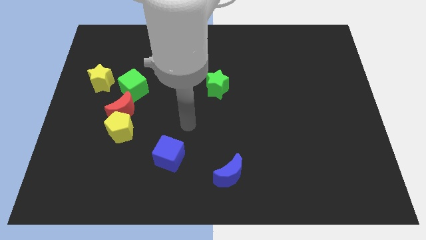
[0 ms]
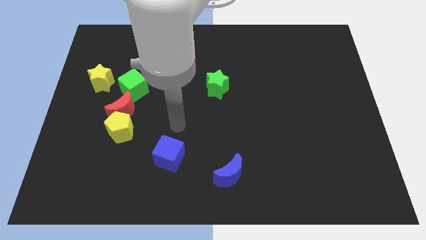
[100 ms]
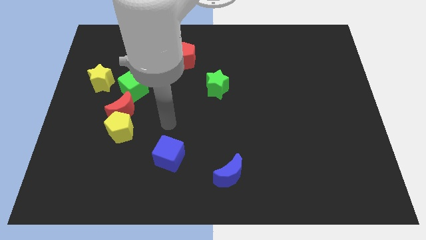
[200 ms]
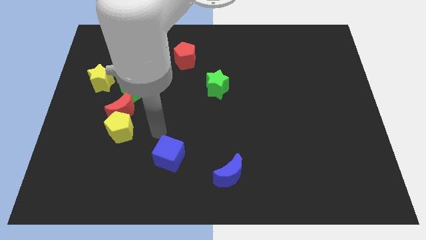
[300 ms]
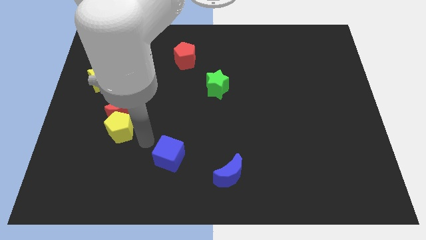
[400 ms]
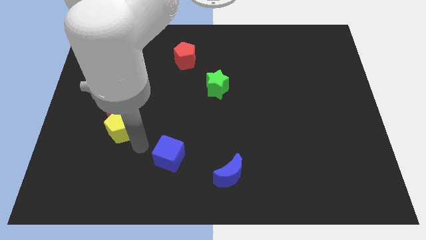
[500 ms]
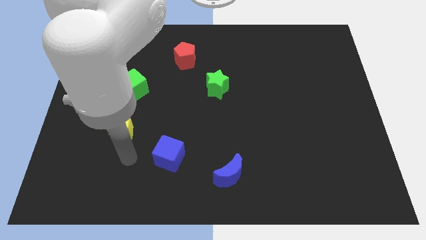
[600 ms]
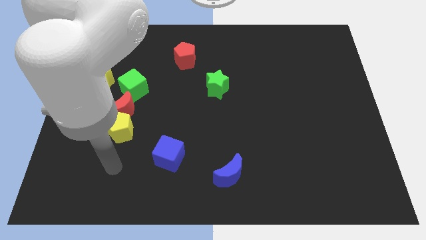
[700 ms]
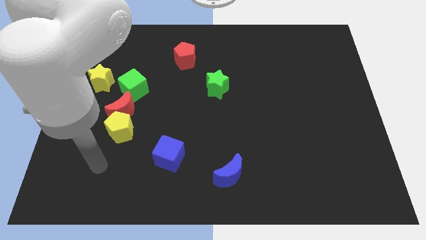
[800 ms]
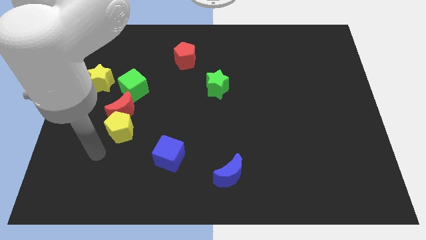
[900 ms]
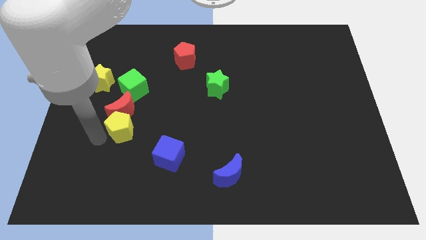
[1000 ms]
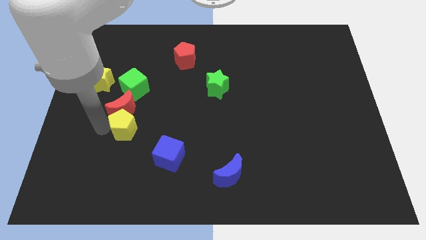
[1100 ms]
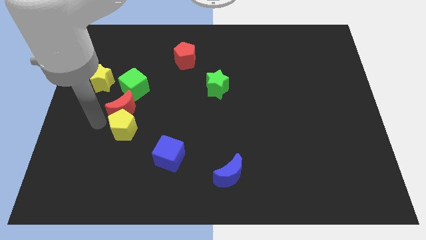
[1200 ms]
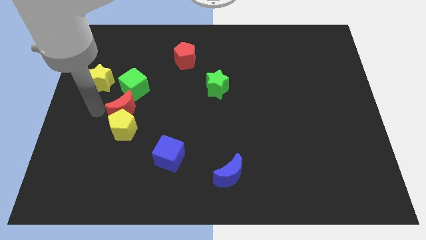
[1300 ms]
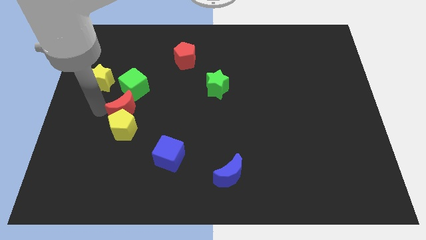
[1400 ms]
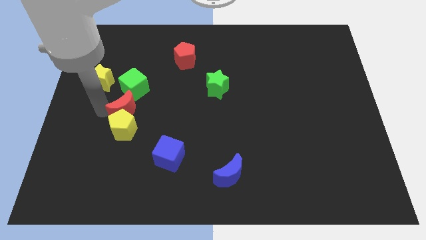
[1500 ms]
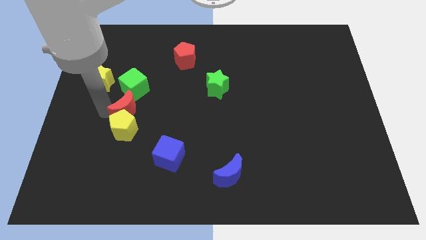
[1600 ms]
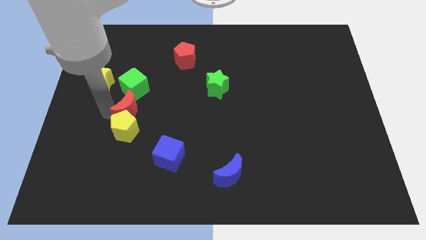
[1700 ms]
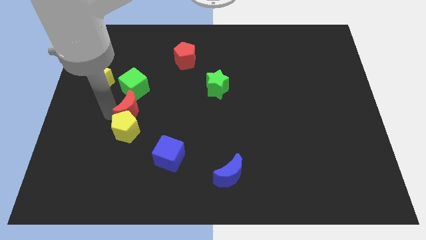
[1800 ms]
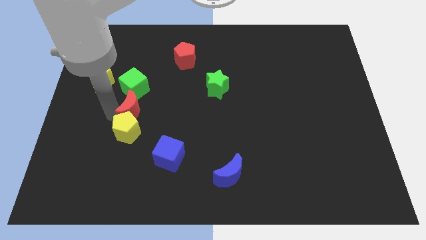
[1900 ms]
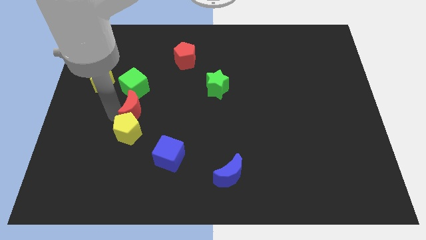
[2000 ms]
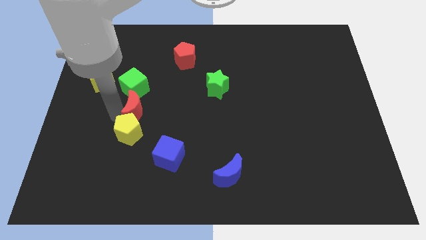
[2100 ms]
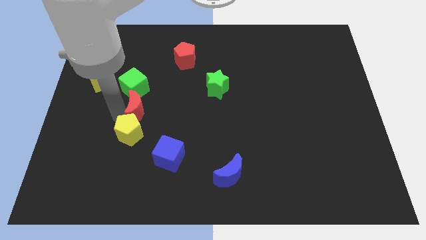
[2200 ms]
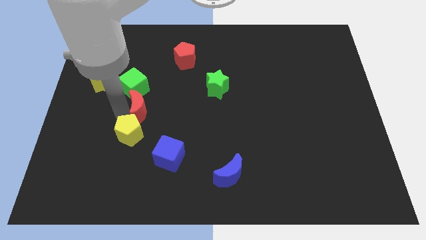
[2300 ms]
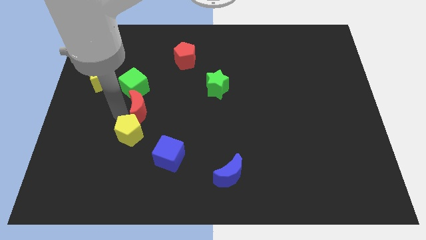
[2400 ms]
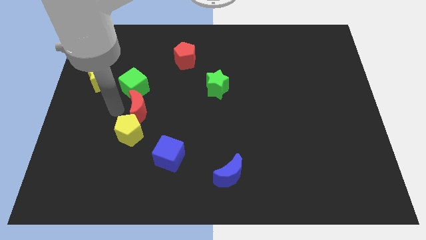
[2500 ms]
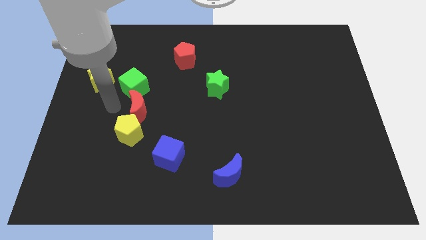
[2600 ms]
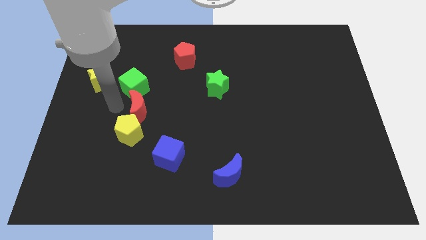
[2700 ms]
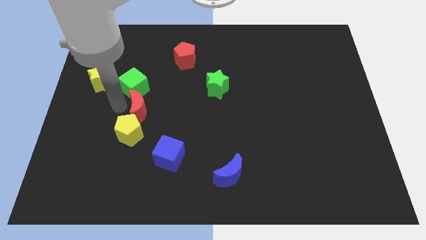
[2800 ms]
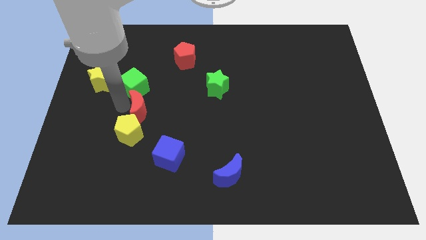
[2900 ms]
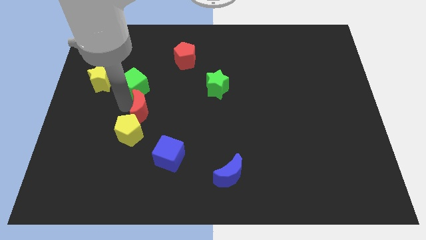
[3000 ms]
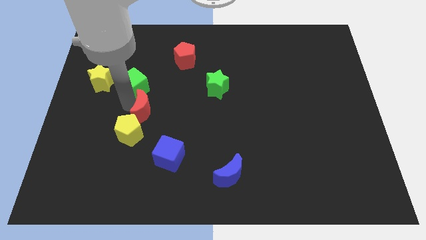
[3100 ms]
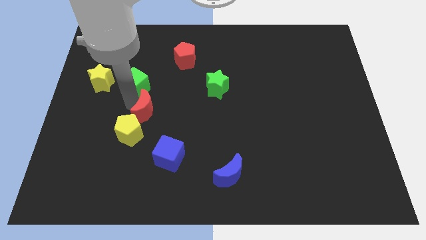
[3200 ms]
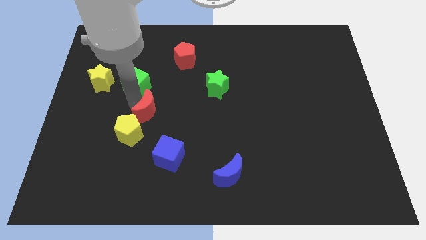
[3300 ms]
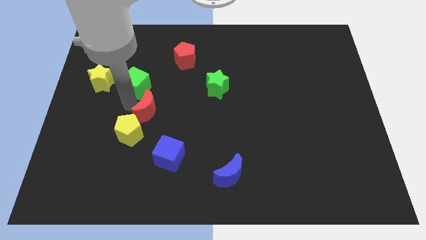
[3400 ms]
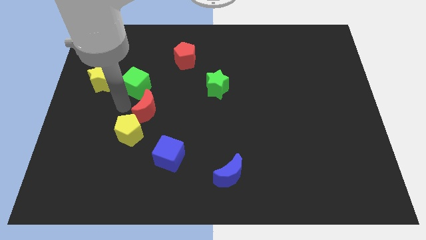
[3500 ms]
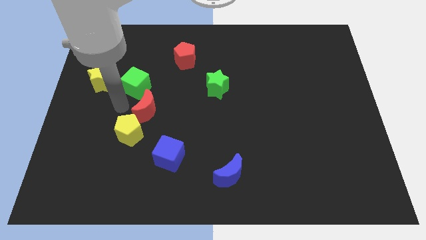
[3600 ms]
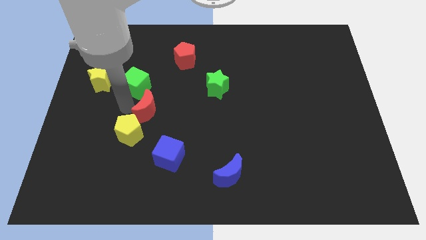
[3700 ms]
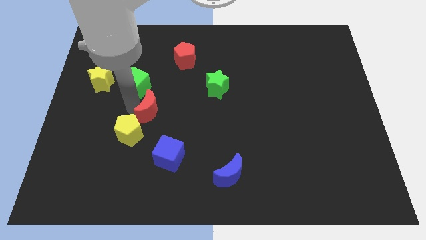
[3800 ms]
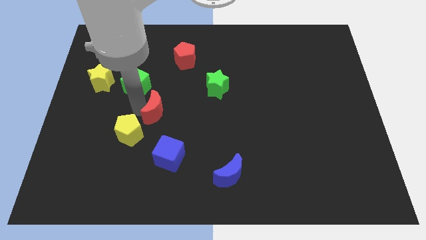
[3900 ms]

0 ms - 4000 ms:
slide the red moon somewhat right

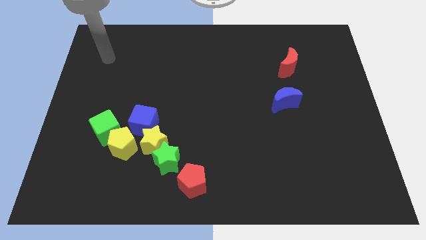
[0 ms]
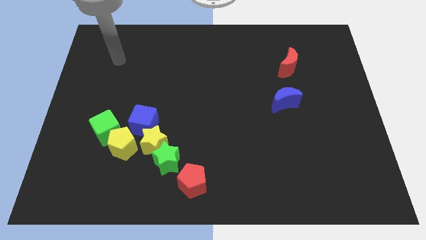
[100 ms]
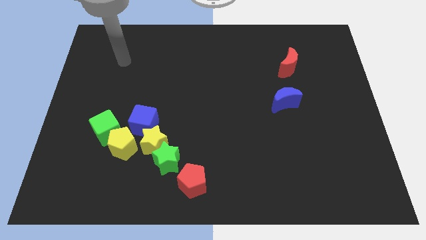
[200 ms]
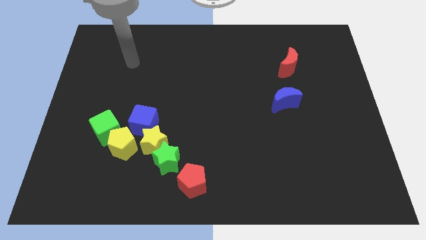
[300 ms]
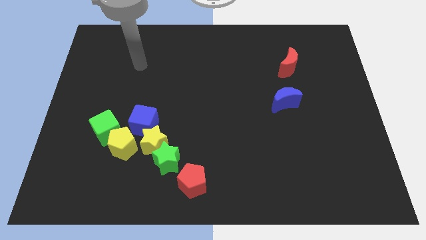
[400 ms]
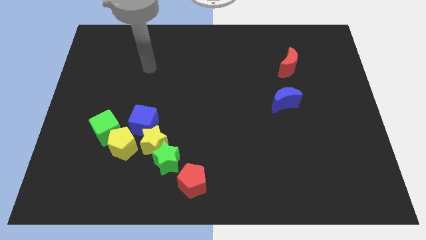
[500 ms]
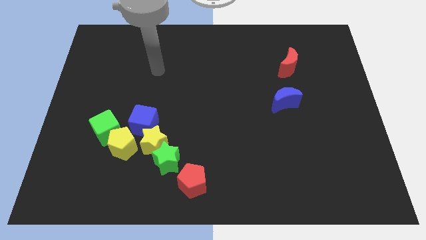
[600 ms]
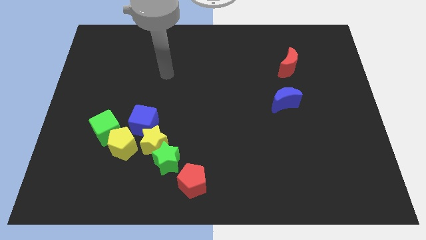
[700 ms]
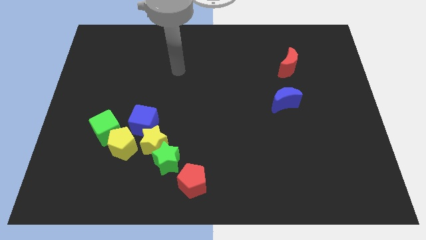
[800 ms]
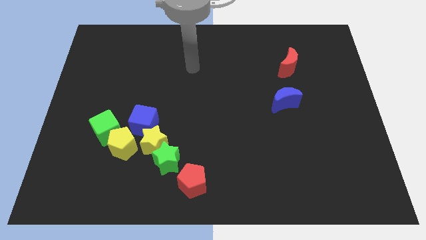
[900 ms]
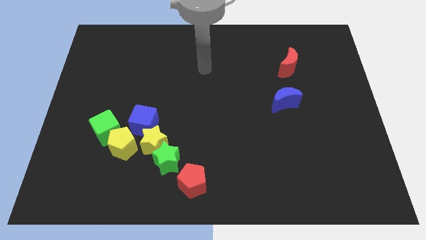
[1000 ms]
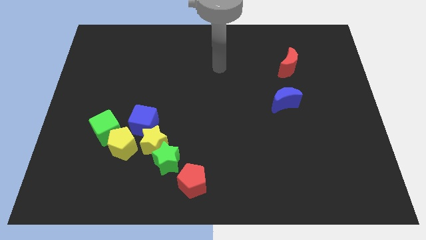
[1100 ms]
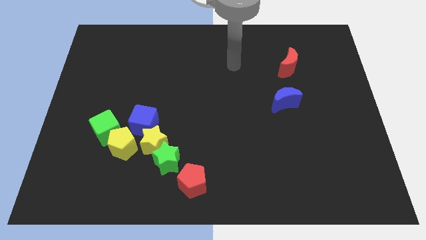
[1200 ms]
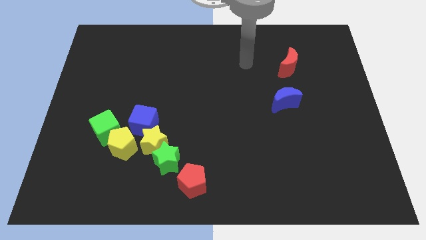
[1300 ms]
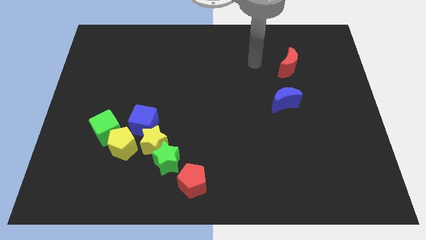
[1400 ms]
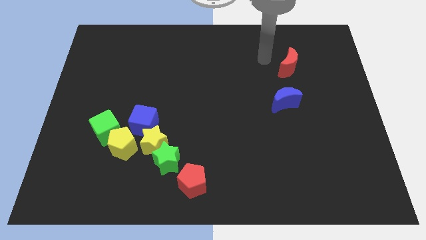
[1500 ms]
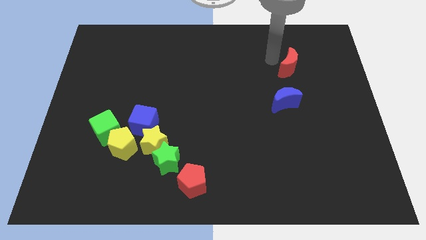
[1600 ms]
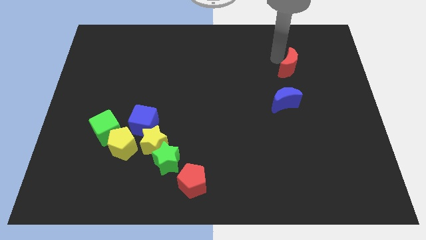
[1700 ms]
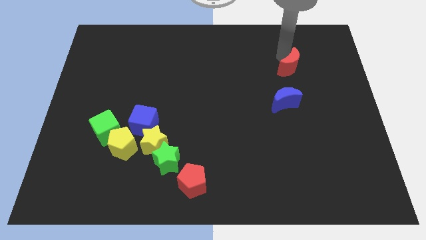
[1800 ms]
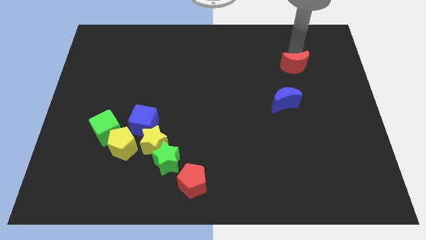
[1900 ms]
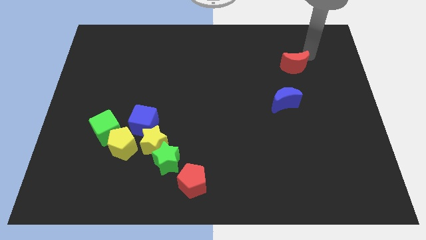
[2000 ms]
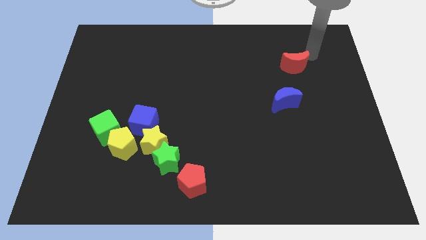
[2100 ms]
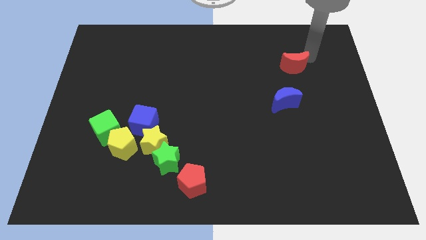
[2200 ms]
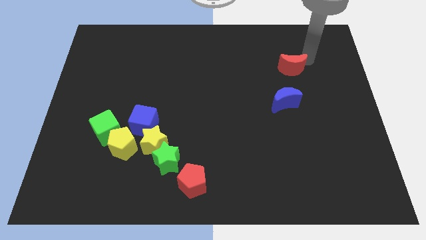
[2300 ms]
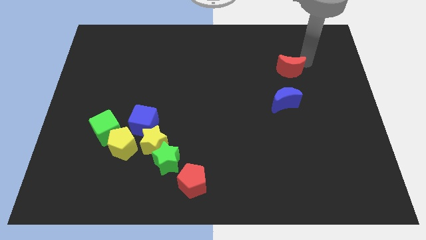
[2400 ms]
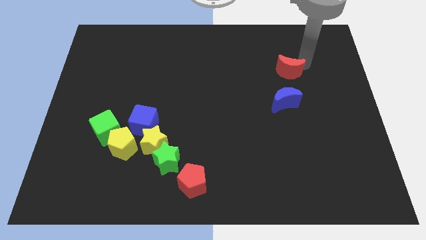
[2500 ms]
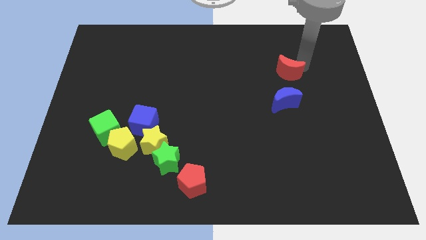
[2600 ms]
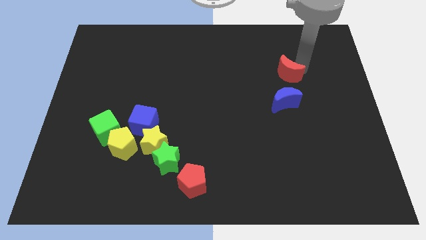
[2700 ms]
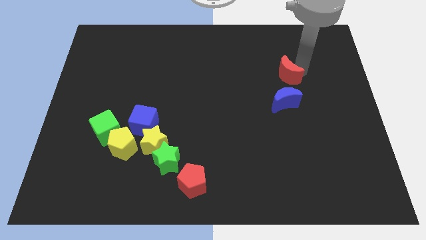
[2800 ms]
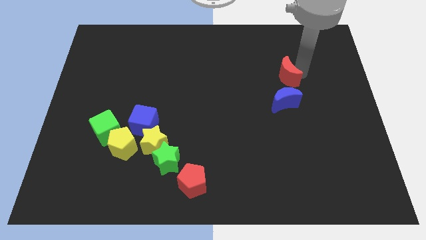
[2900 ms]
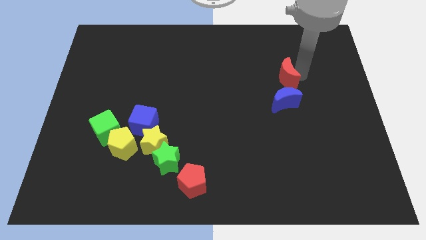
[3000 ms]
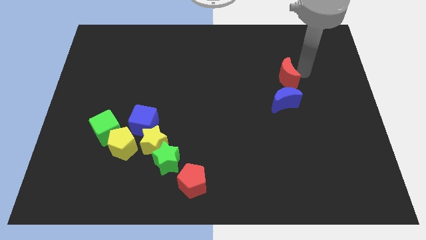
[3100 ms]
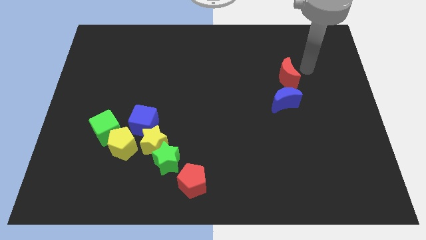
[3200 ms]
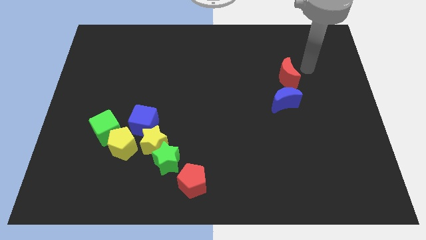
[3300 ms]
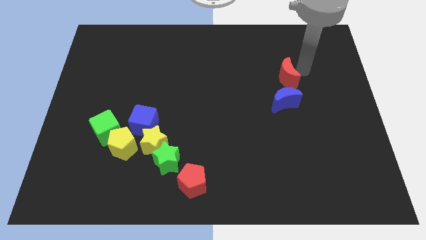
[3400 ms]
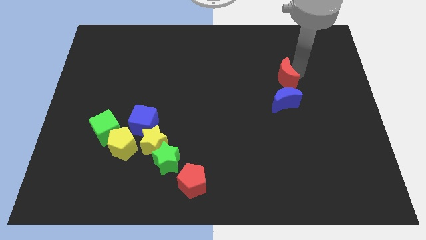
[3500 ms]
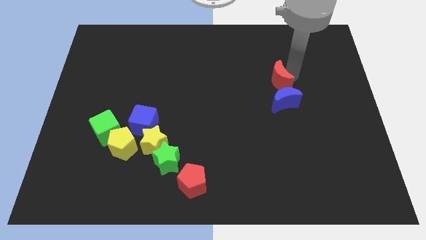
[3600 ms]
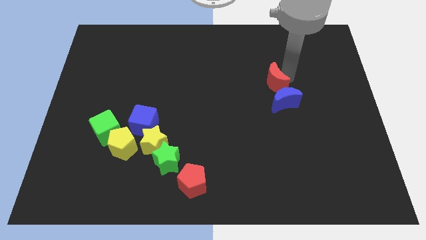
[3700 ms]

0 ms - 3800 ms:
slightly move the red moon down and left diagonally
